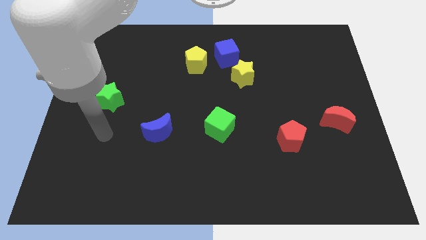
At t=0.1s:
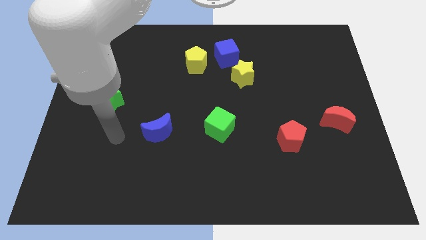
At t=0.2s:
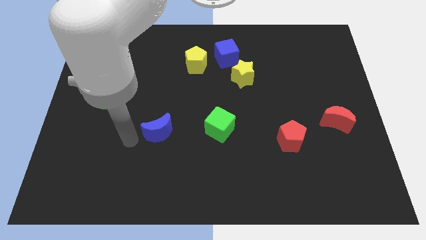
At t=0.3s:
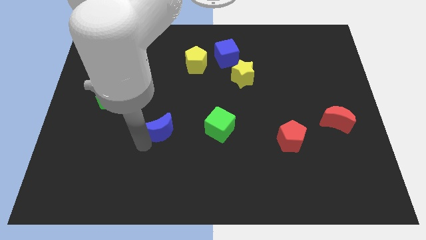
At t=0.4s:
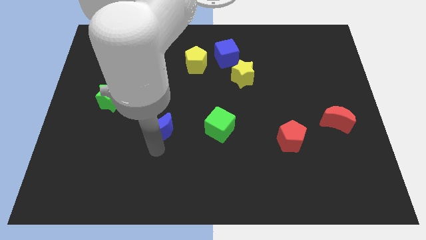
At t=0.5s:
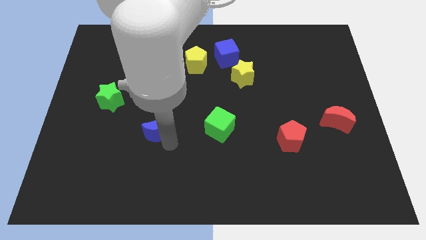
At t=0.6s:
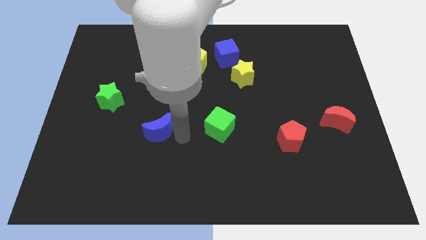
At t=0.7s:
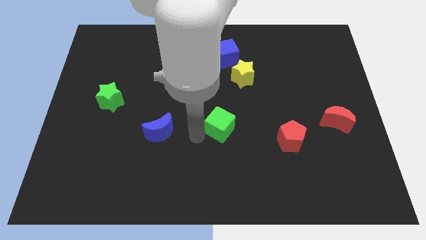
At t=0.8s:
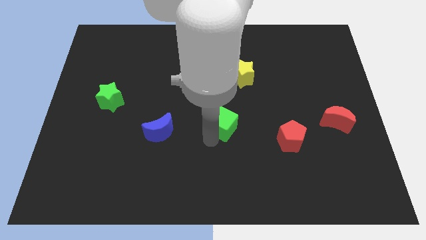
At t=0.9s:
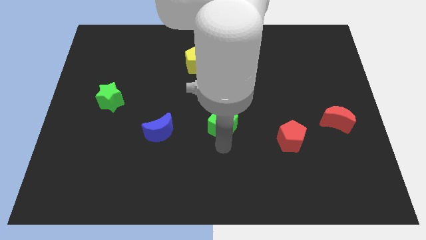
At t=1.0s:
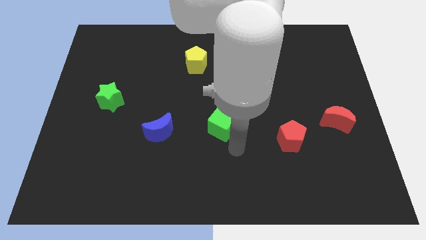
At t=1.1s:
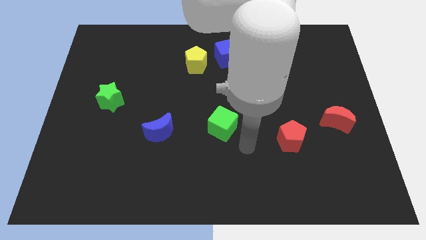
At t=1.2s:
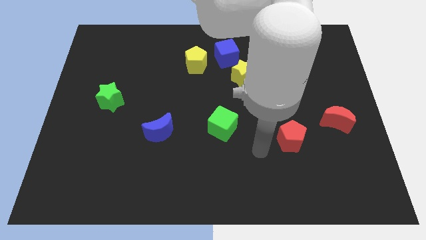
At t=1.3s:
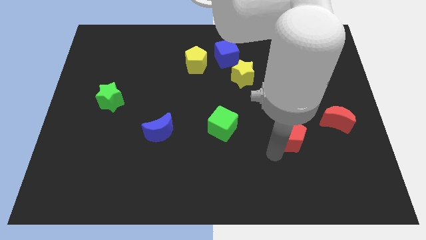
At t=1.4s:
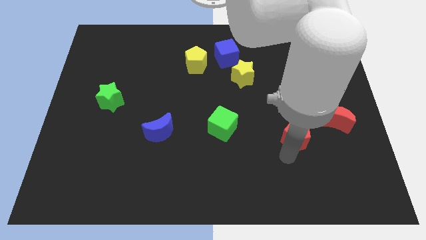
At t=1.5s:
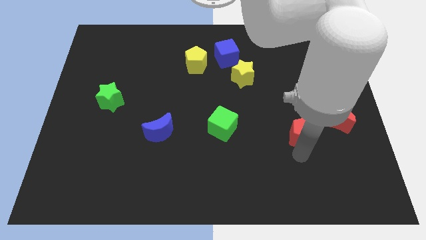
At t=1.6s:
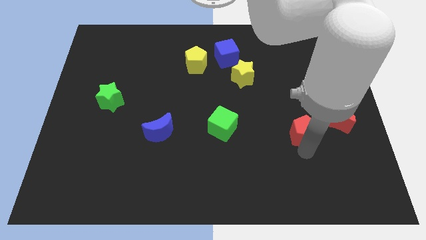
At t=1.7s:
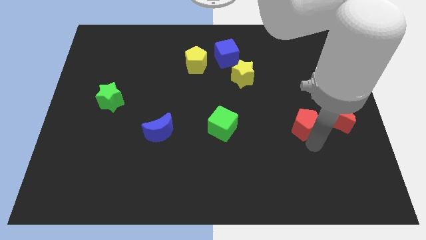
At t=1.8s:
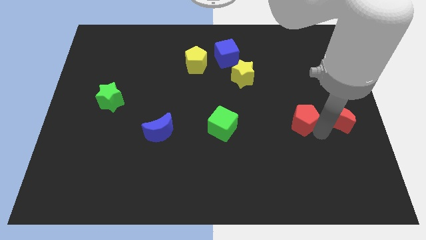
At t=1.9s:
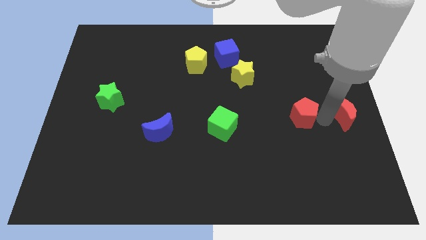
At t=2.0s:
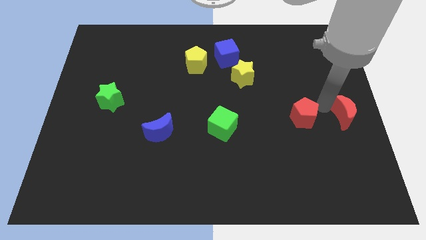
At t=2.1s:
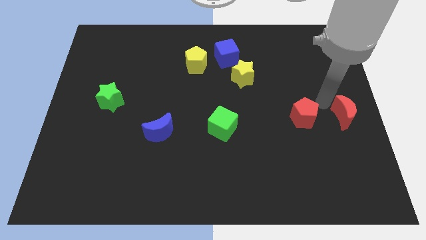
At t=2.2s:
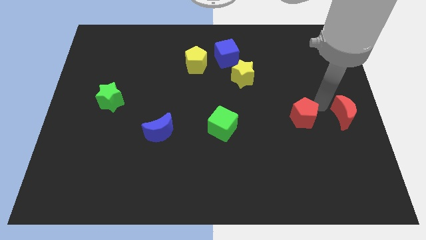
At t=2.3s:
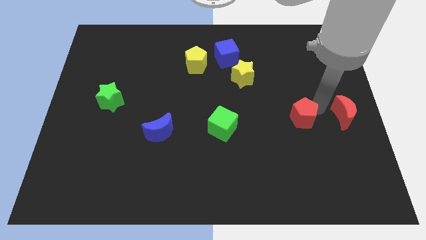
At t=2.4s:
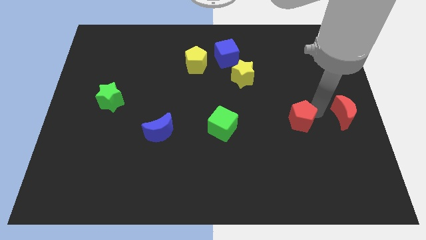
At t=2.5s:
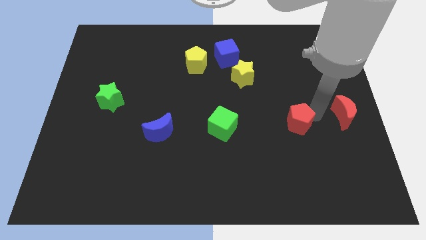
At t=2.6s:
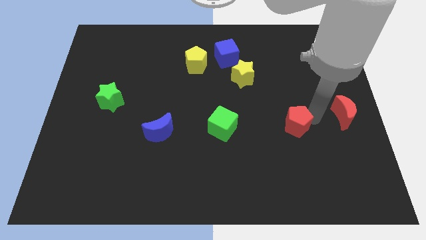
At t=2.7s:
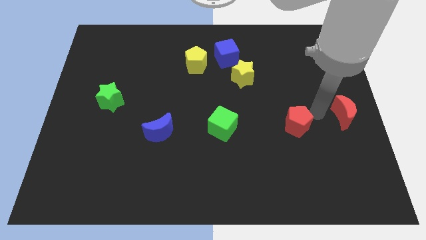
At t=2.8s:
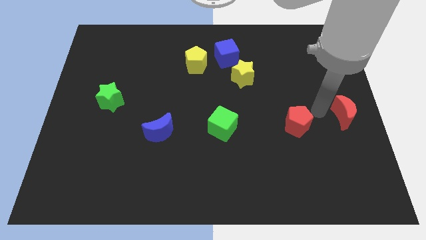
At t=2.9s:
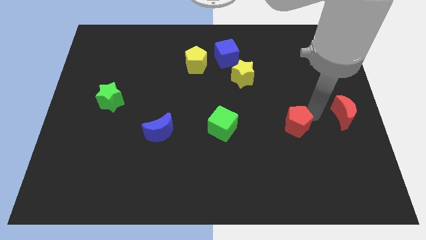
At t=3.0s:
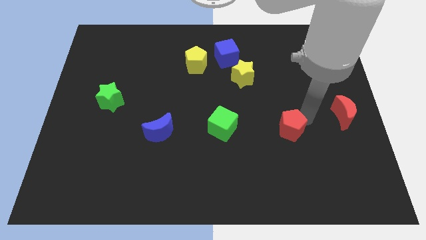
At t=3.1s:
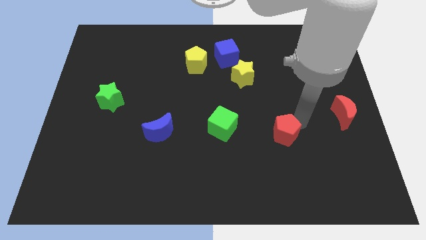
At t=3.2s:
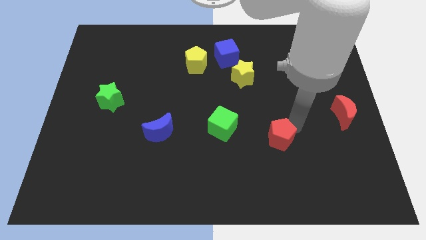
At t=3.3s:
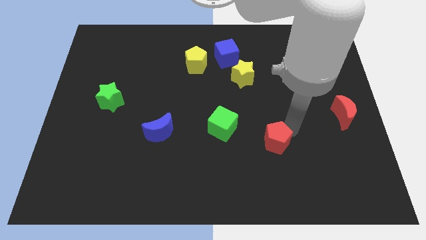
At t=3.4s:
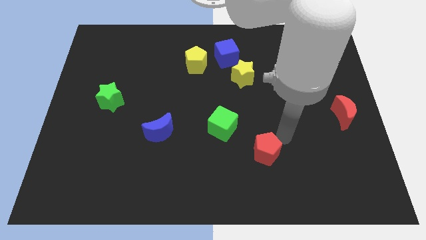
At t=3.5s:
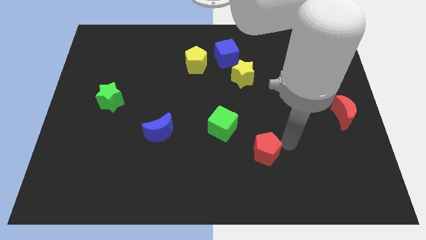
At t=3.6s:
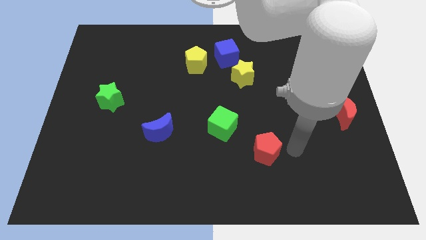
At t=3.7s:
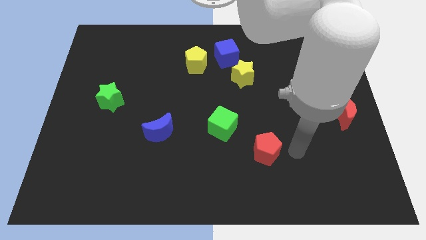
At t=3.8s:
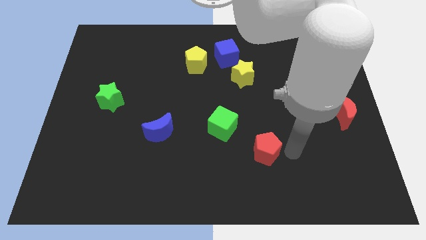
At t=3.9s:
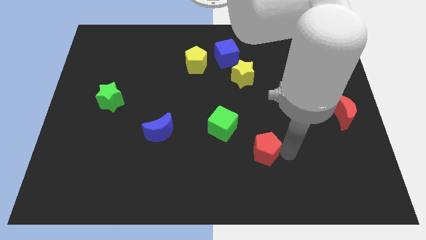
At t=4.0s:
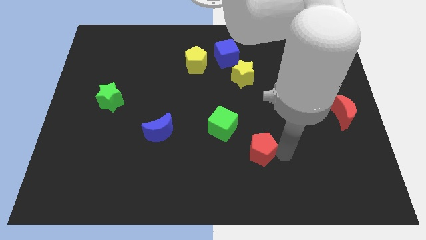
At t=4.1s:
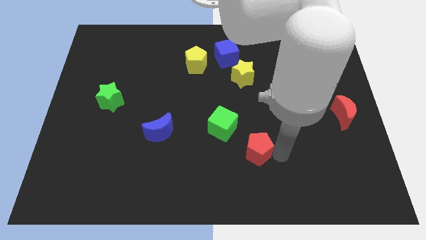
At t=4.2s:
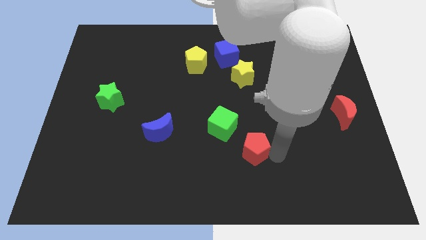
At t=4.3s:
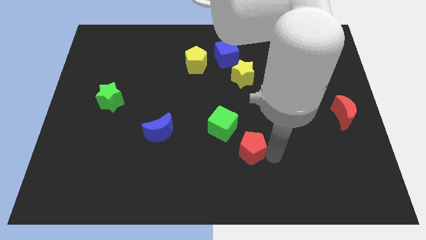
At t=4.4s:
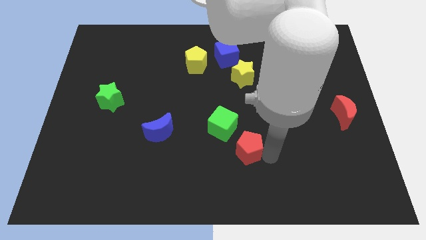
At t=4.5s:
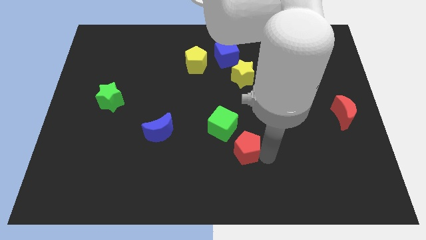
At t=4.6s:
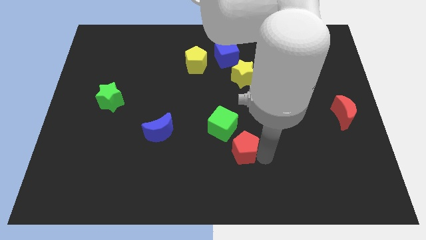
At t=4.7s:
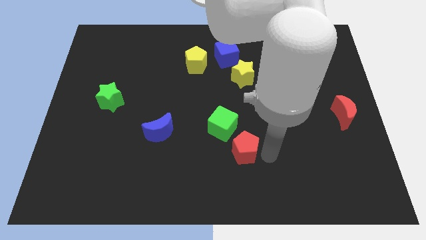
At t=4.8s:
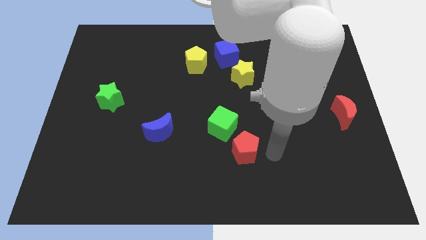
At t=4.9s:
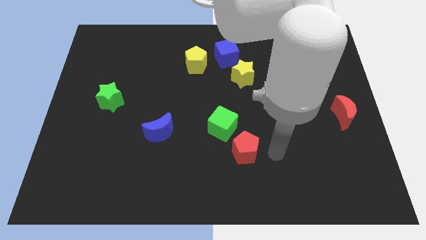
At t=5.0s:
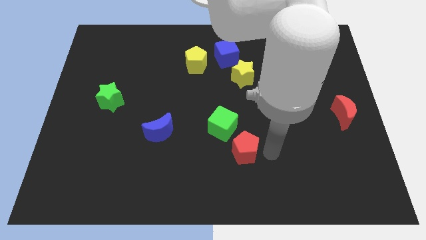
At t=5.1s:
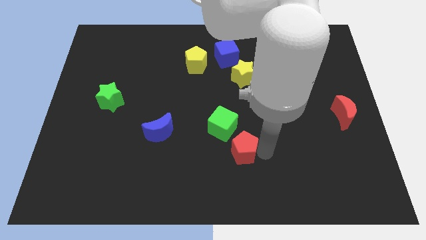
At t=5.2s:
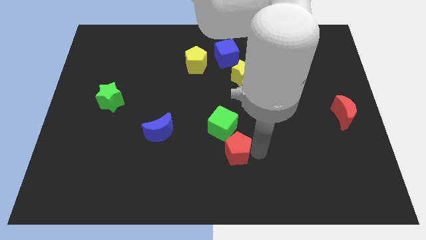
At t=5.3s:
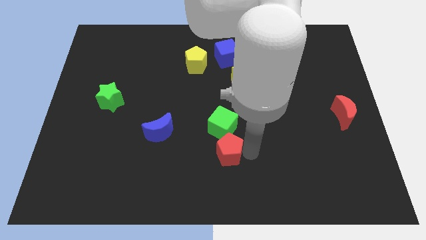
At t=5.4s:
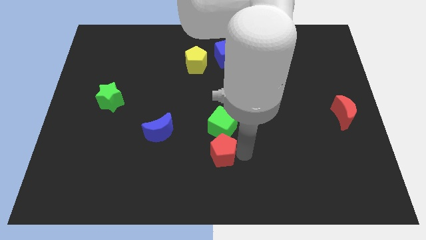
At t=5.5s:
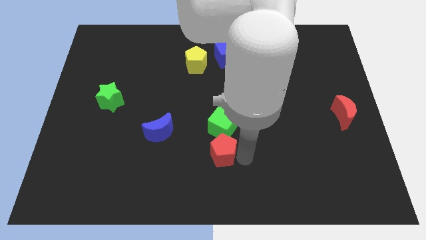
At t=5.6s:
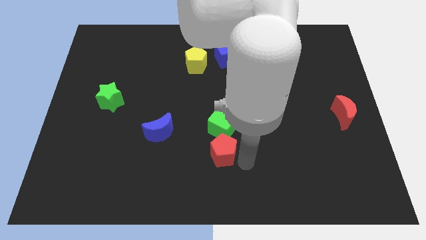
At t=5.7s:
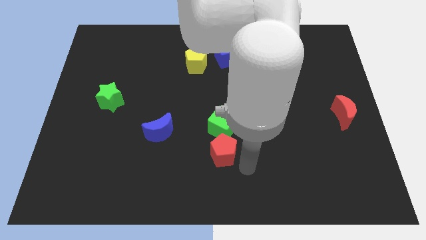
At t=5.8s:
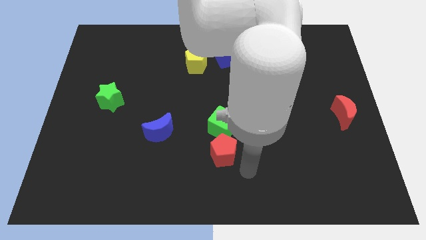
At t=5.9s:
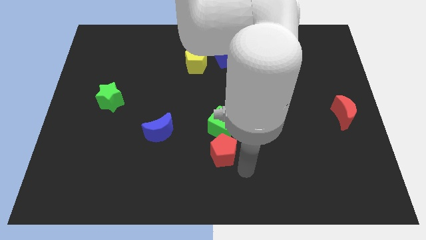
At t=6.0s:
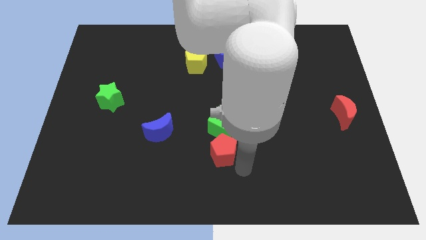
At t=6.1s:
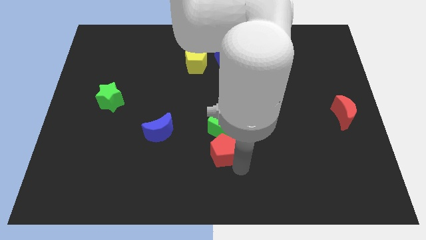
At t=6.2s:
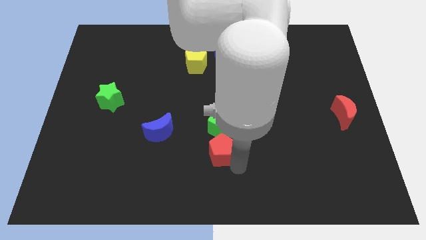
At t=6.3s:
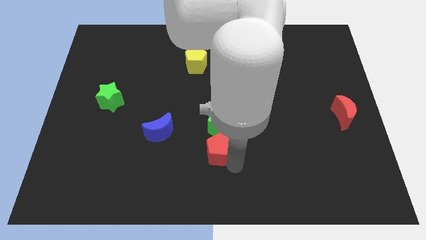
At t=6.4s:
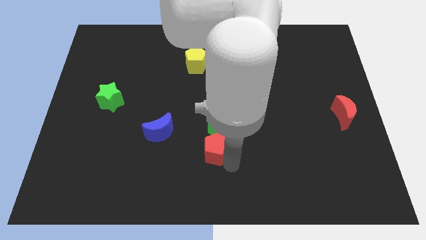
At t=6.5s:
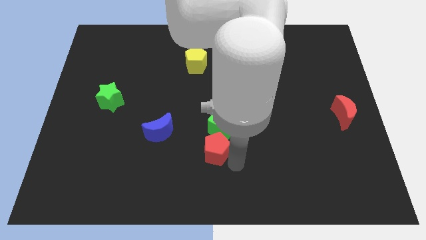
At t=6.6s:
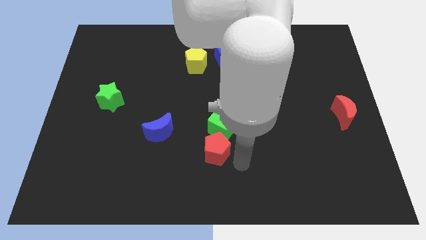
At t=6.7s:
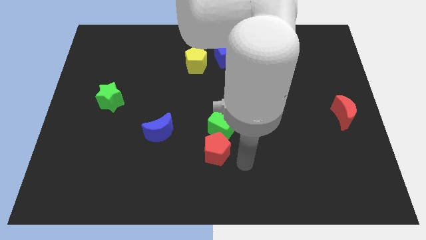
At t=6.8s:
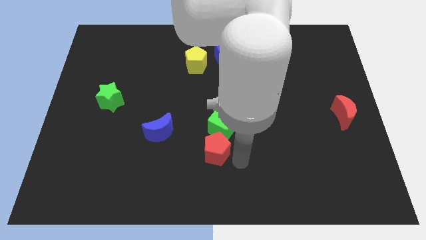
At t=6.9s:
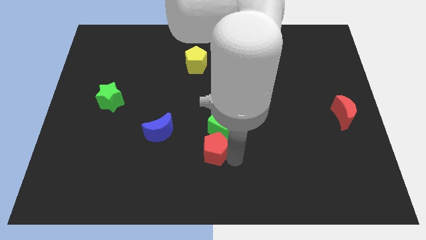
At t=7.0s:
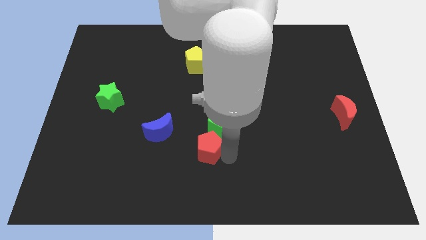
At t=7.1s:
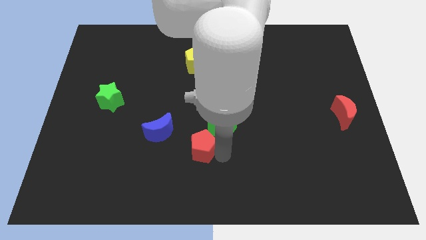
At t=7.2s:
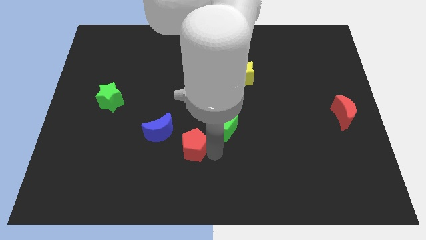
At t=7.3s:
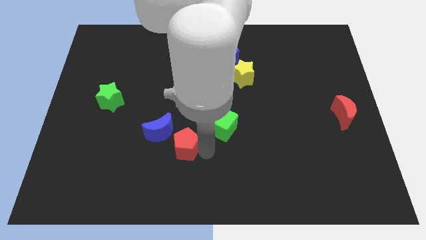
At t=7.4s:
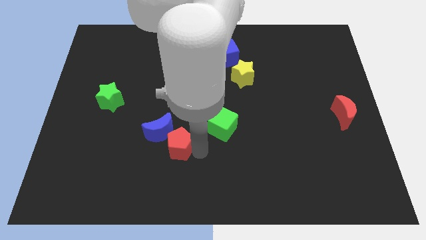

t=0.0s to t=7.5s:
push the red pentagon next to the blue moon
